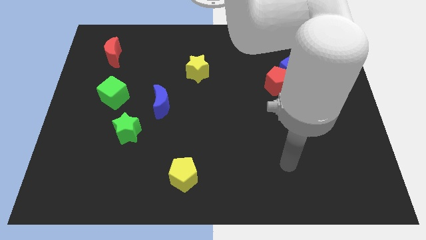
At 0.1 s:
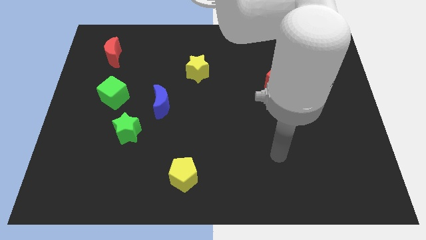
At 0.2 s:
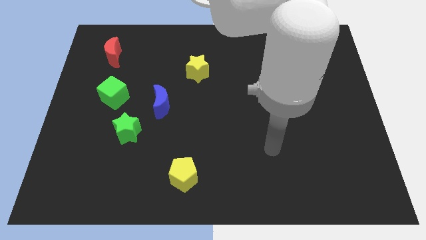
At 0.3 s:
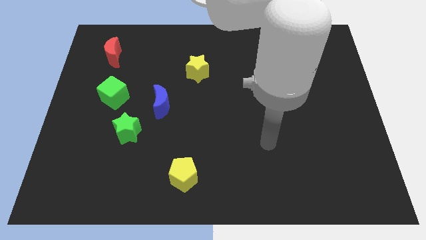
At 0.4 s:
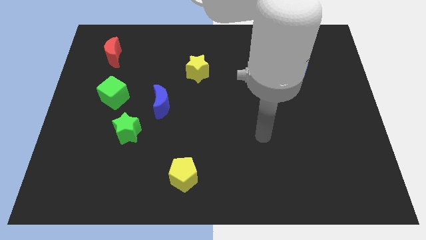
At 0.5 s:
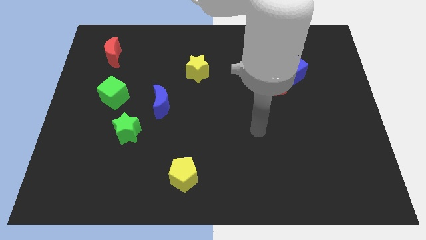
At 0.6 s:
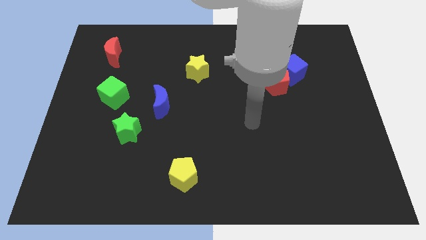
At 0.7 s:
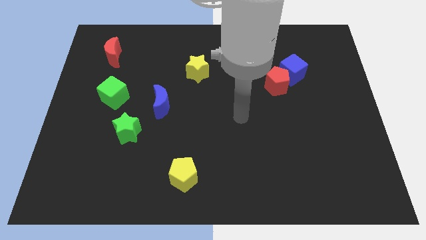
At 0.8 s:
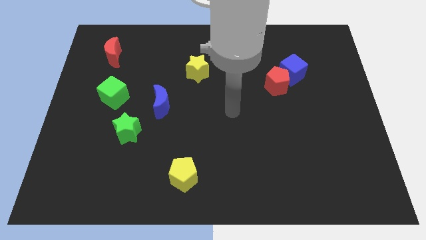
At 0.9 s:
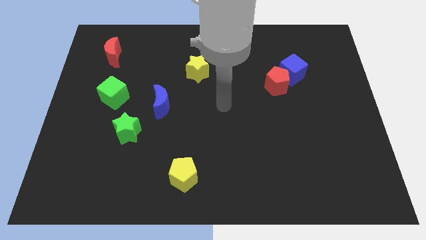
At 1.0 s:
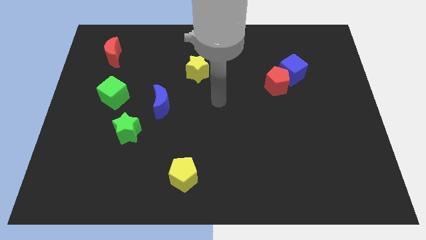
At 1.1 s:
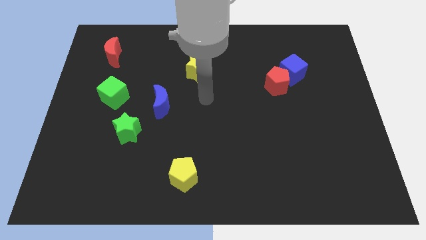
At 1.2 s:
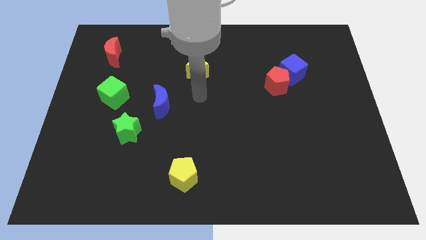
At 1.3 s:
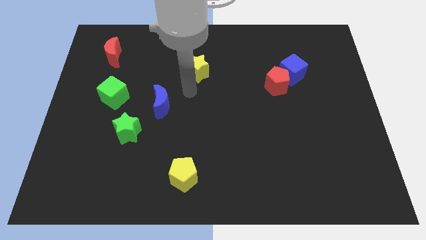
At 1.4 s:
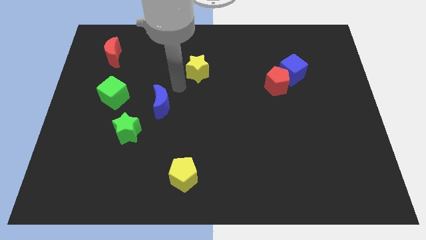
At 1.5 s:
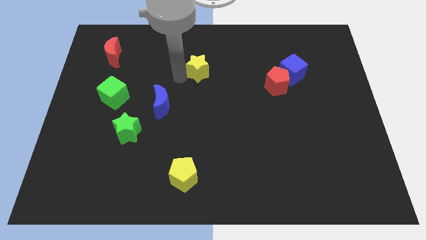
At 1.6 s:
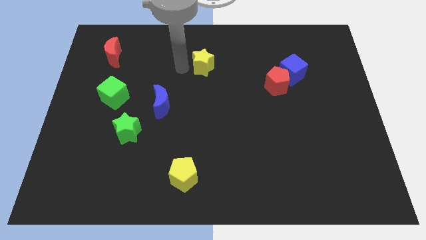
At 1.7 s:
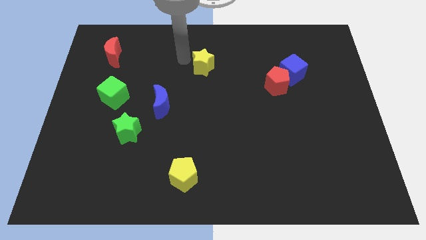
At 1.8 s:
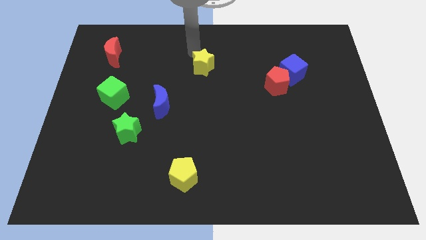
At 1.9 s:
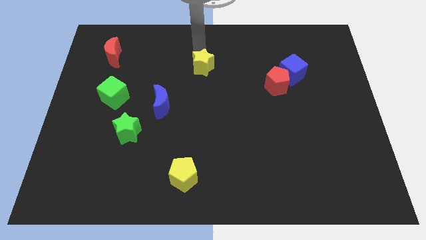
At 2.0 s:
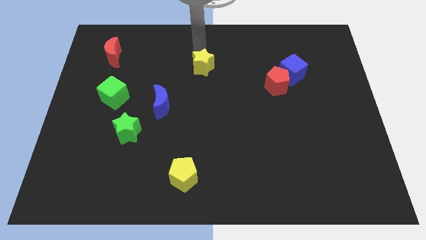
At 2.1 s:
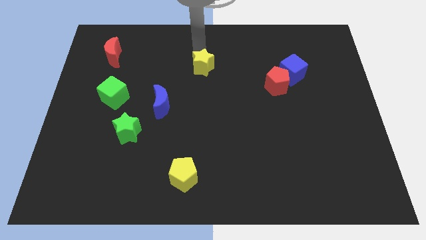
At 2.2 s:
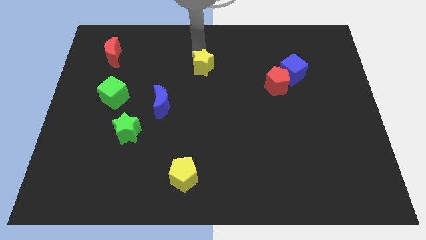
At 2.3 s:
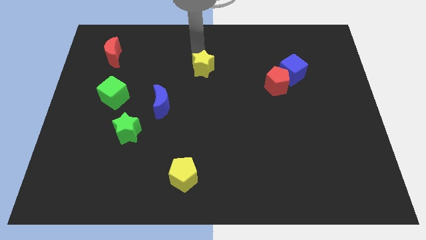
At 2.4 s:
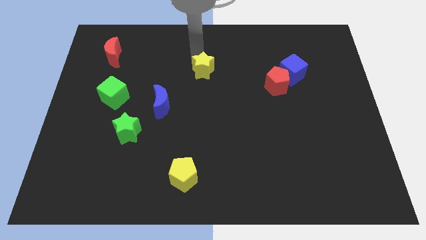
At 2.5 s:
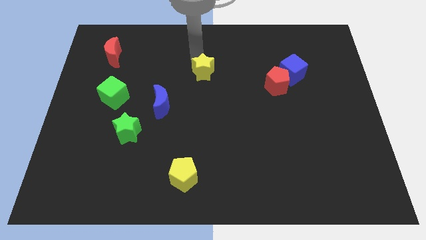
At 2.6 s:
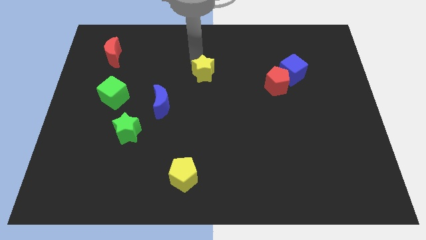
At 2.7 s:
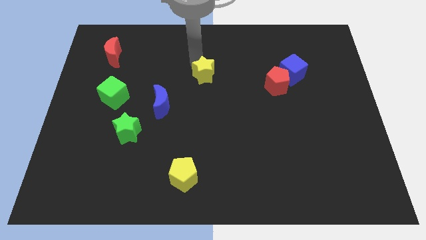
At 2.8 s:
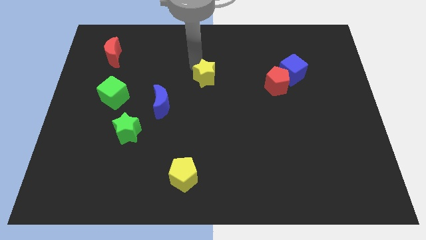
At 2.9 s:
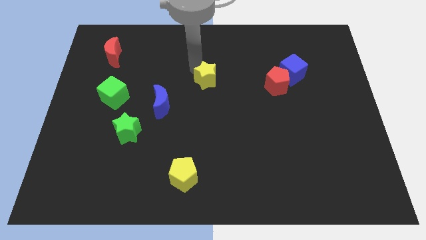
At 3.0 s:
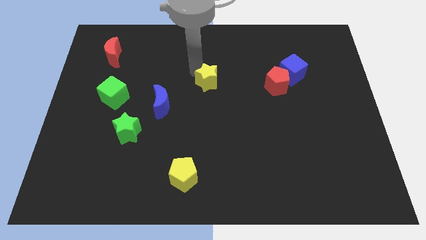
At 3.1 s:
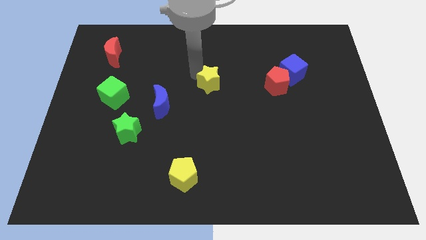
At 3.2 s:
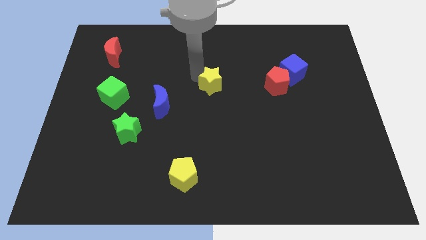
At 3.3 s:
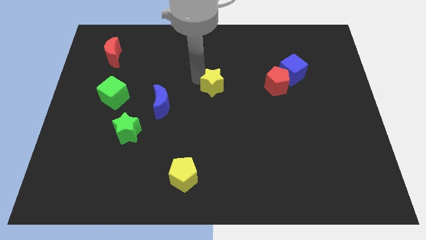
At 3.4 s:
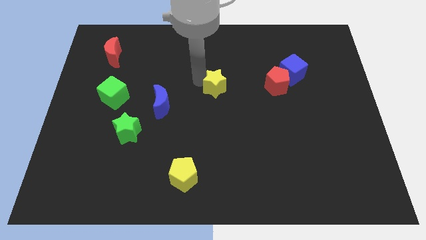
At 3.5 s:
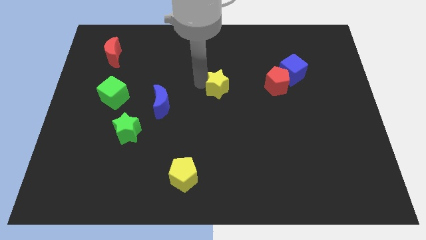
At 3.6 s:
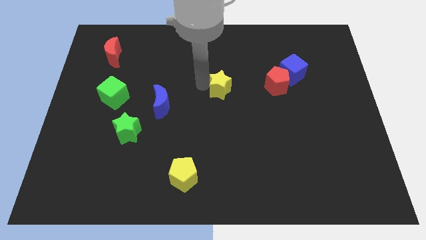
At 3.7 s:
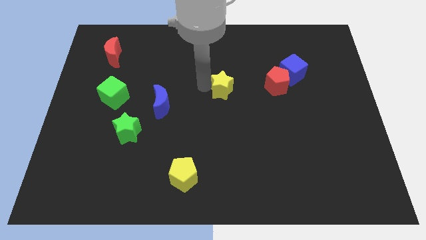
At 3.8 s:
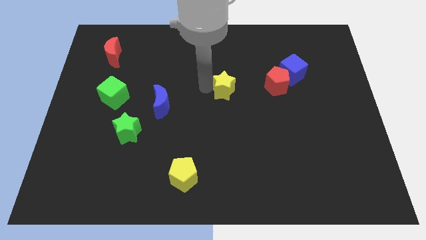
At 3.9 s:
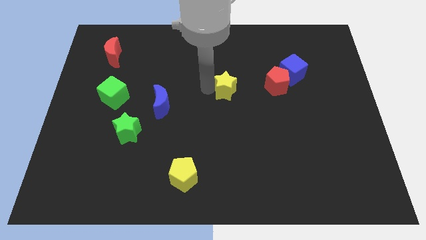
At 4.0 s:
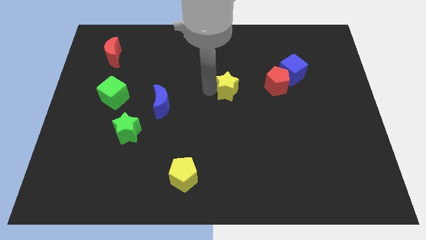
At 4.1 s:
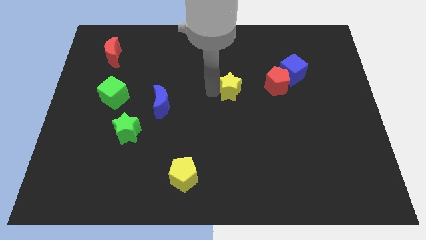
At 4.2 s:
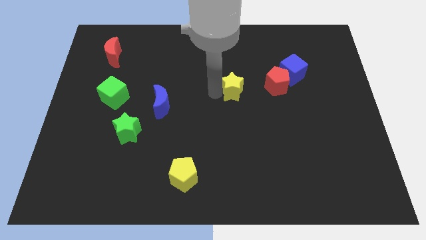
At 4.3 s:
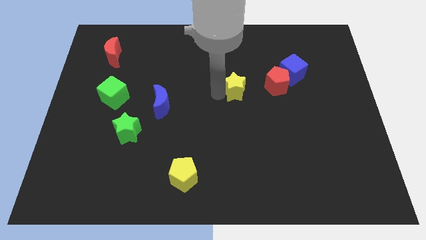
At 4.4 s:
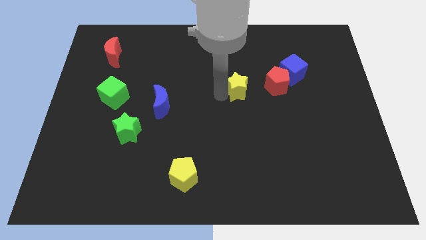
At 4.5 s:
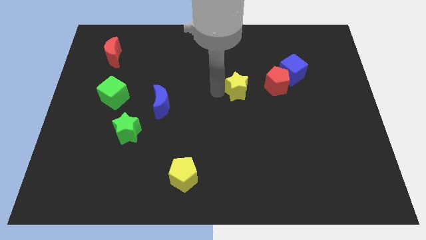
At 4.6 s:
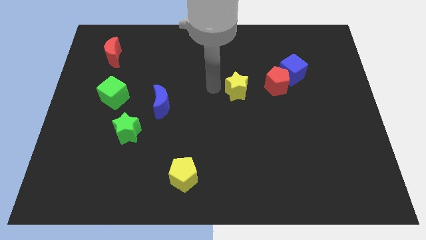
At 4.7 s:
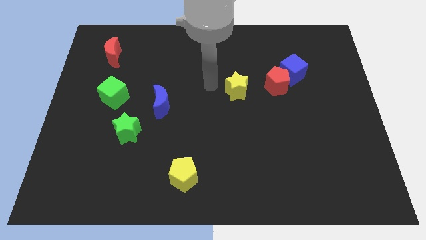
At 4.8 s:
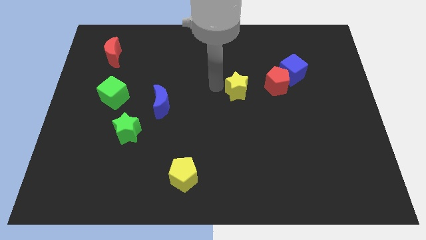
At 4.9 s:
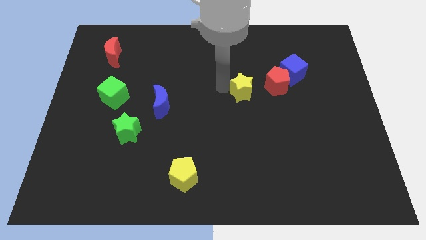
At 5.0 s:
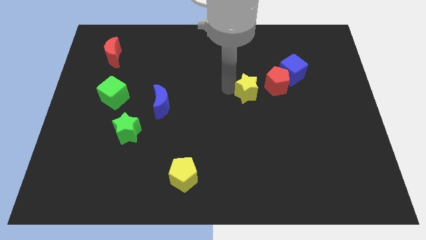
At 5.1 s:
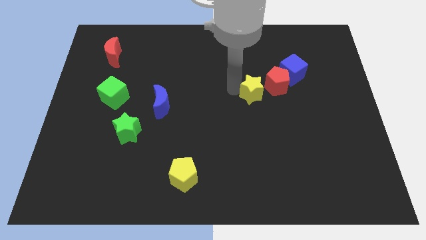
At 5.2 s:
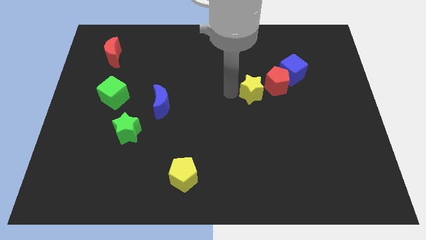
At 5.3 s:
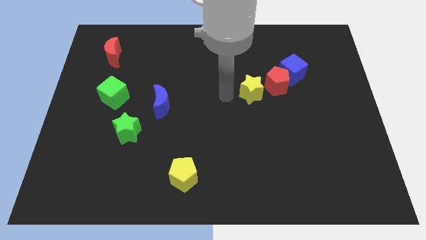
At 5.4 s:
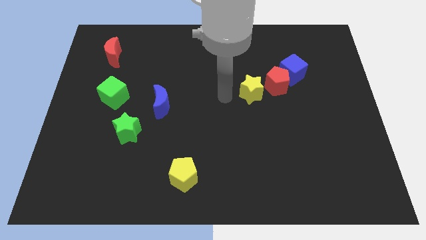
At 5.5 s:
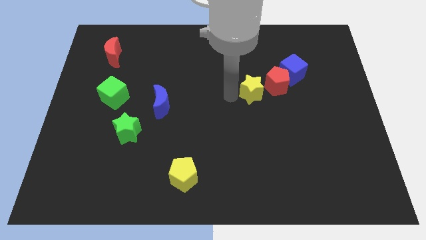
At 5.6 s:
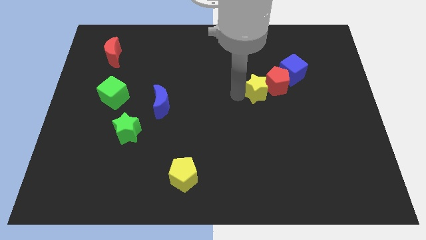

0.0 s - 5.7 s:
push the yellow star to the bottom left of the blue cube

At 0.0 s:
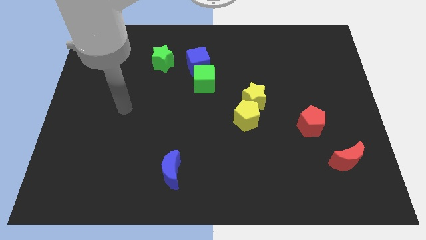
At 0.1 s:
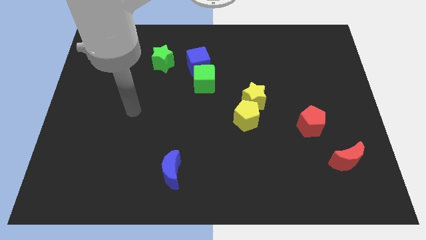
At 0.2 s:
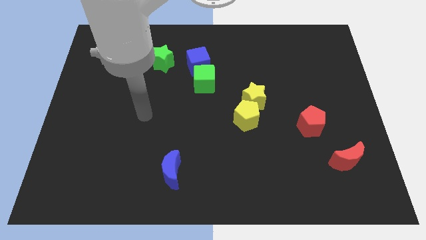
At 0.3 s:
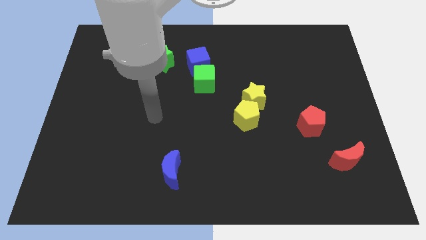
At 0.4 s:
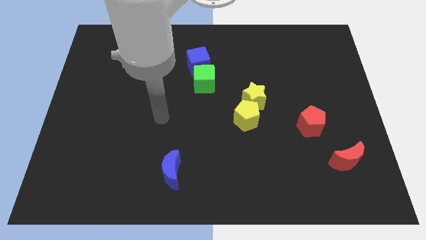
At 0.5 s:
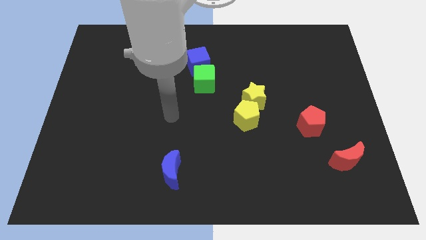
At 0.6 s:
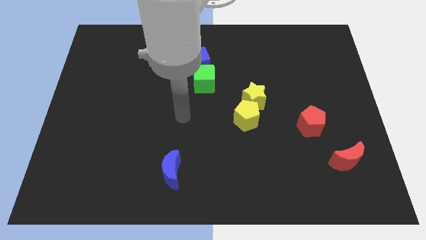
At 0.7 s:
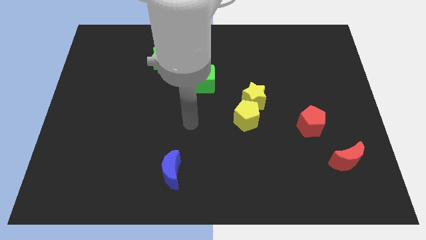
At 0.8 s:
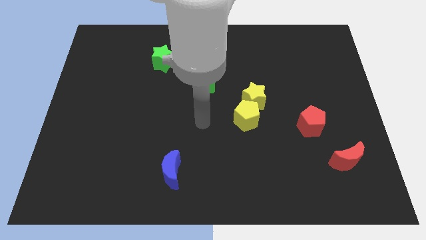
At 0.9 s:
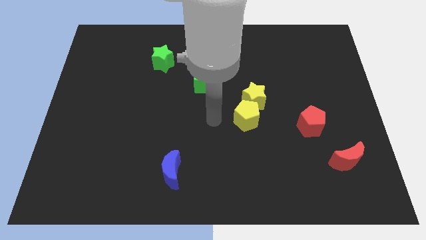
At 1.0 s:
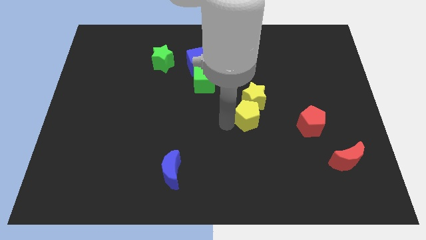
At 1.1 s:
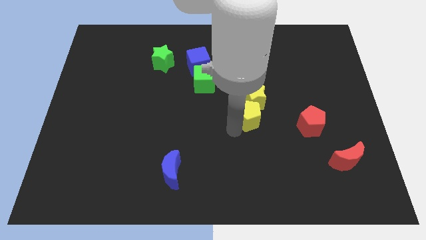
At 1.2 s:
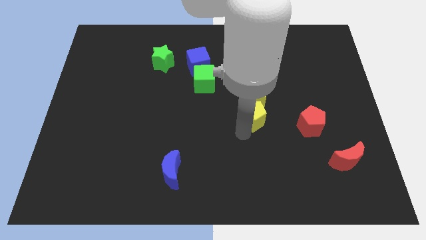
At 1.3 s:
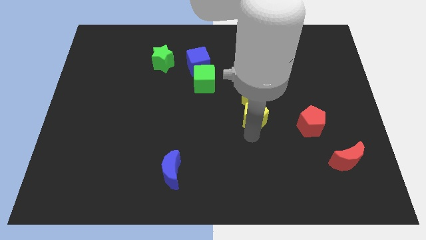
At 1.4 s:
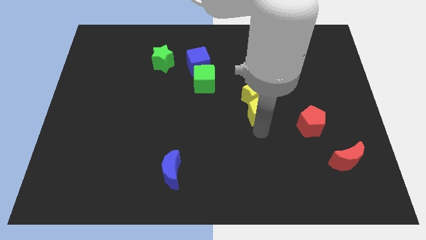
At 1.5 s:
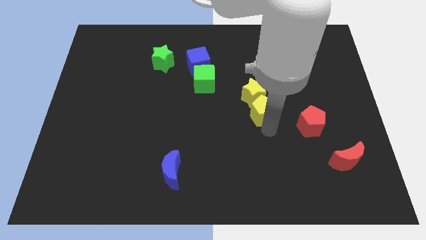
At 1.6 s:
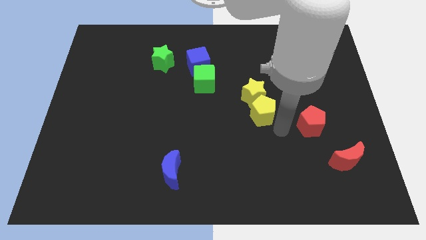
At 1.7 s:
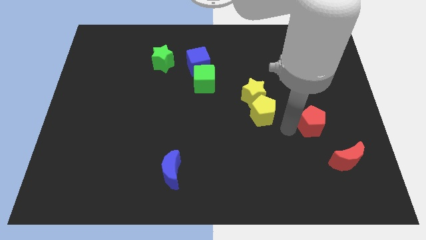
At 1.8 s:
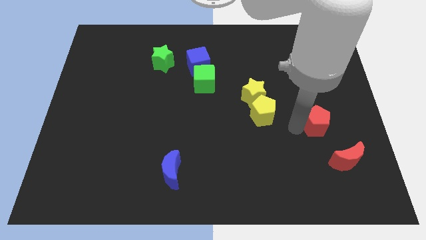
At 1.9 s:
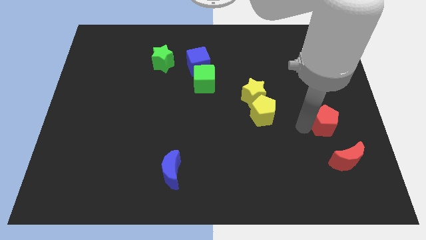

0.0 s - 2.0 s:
move the red pentagon to the top side of the red moon
